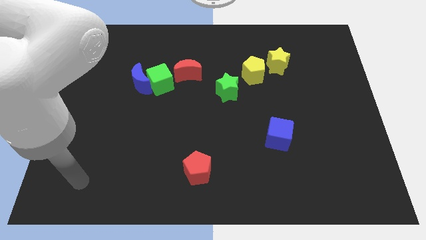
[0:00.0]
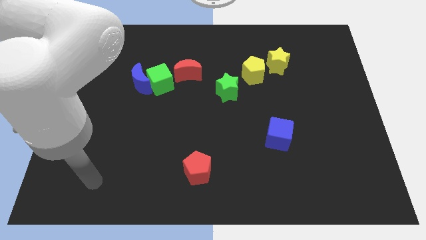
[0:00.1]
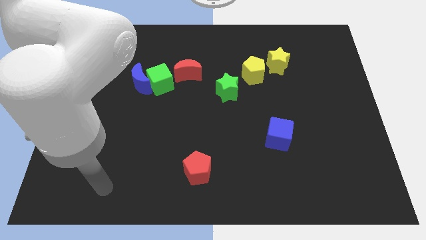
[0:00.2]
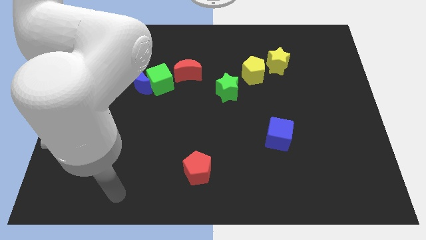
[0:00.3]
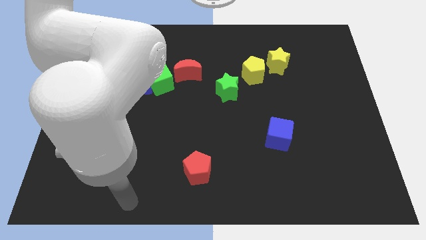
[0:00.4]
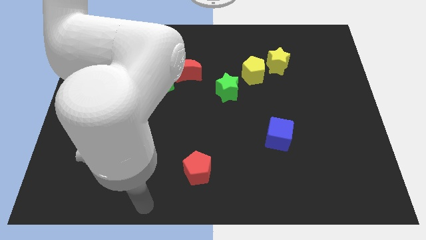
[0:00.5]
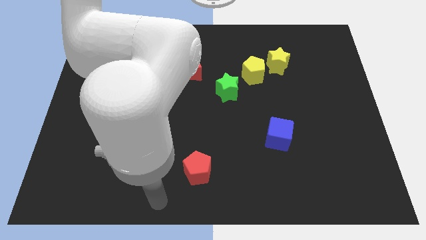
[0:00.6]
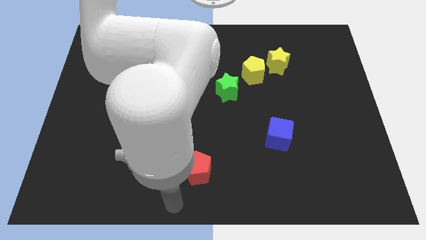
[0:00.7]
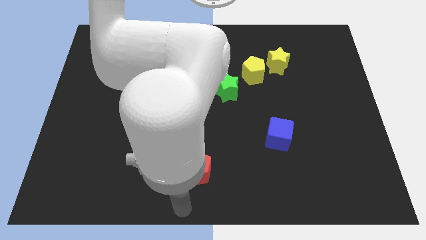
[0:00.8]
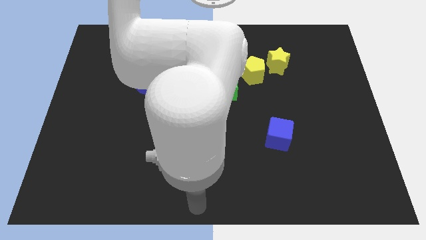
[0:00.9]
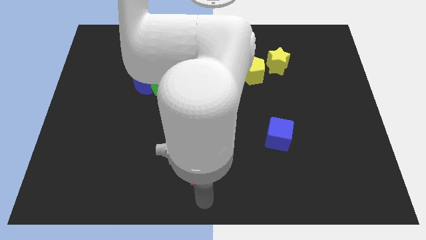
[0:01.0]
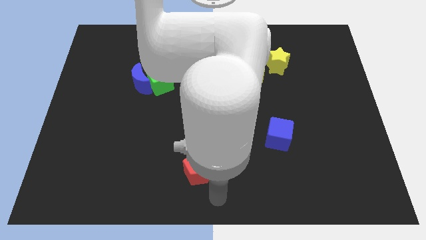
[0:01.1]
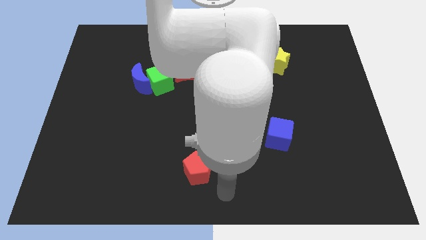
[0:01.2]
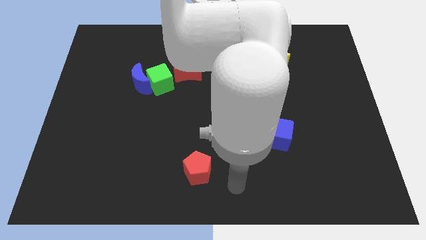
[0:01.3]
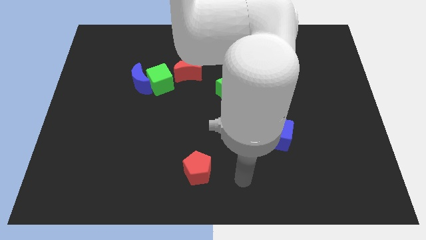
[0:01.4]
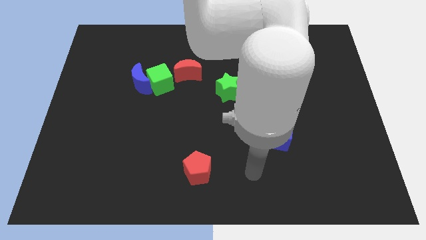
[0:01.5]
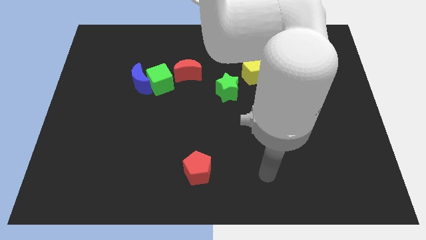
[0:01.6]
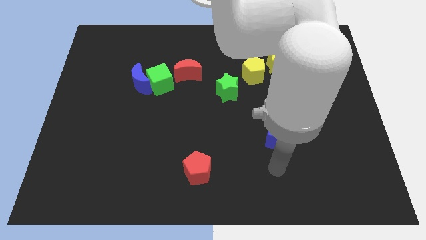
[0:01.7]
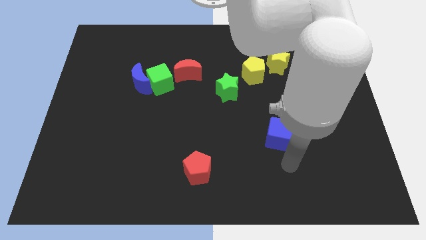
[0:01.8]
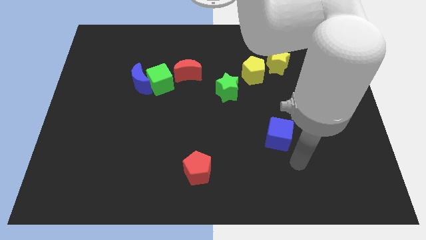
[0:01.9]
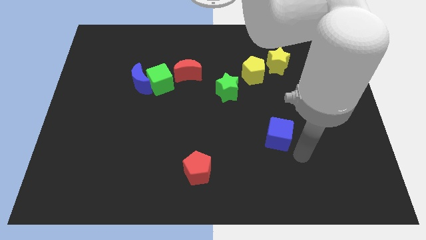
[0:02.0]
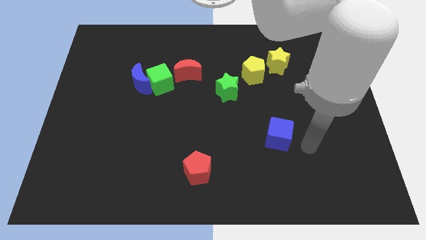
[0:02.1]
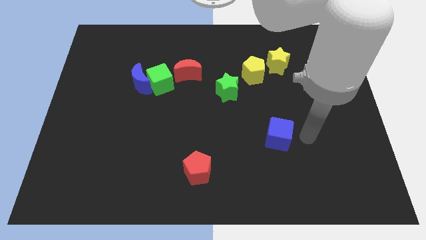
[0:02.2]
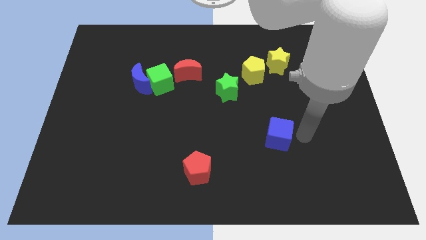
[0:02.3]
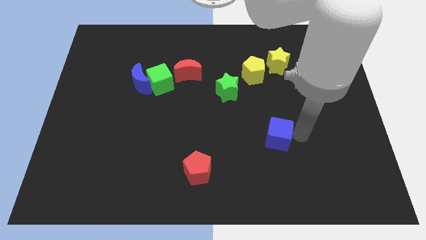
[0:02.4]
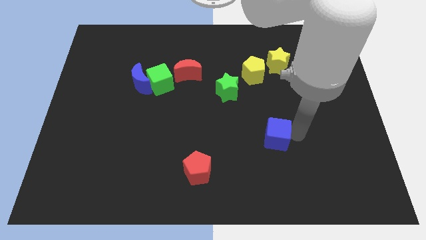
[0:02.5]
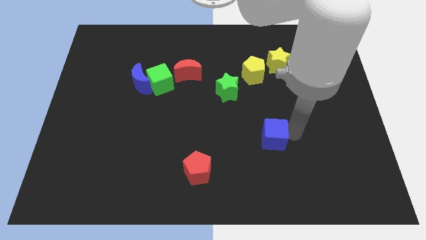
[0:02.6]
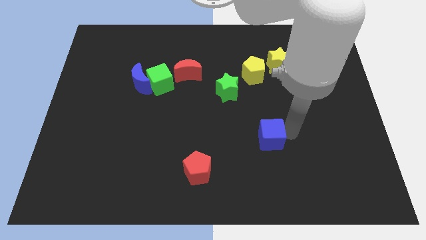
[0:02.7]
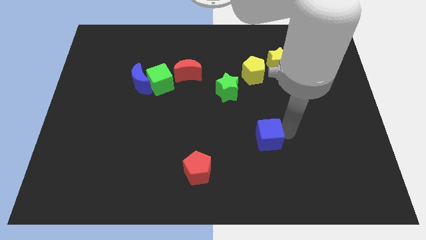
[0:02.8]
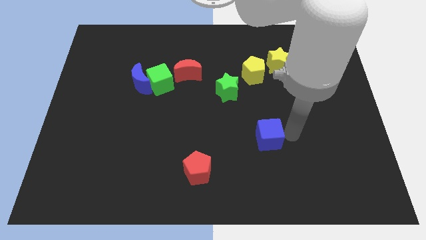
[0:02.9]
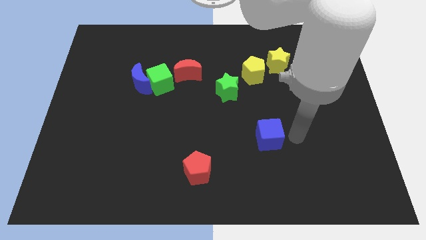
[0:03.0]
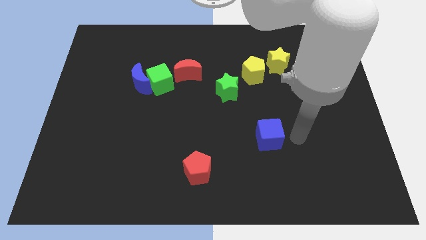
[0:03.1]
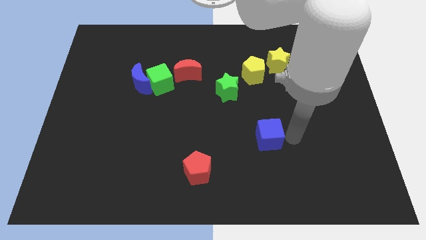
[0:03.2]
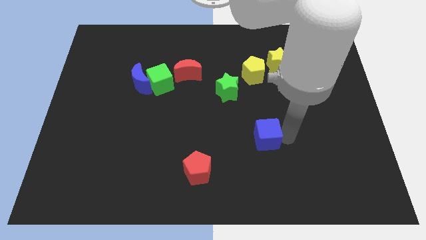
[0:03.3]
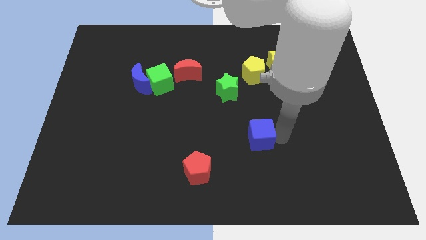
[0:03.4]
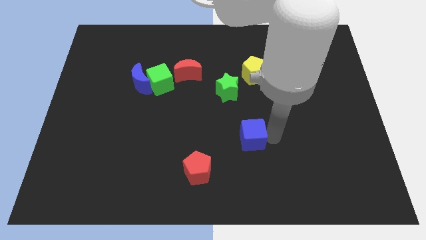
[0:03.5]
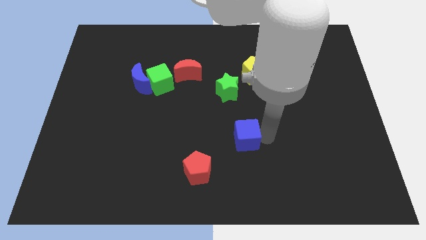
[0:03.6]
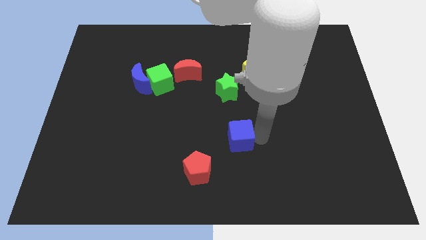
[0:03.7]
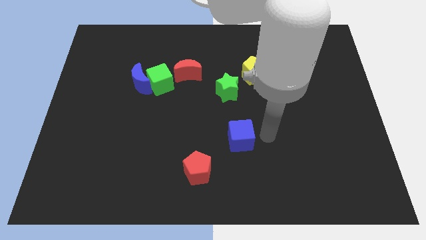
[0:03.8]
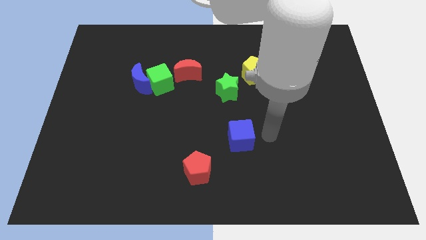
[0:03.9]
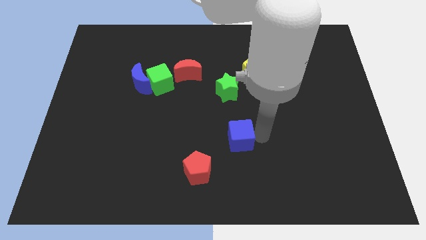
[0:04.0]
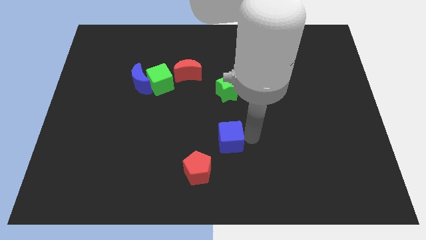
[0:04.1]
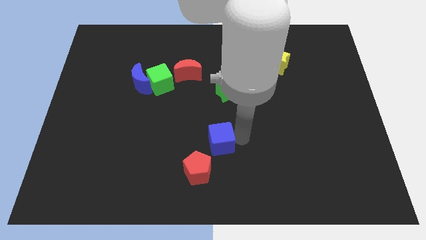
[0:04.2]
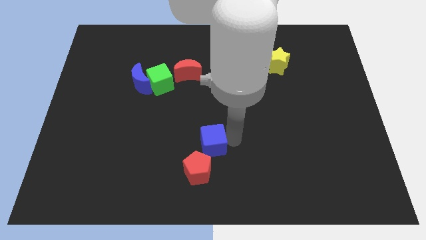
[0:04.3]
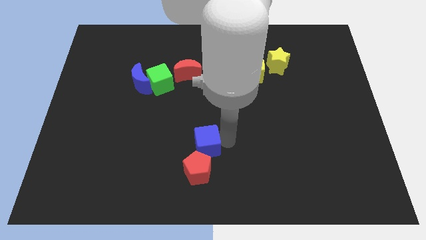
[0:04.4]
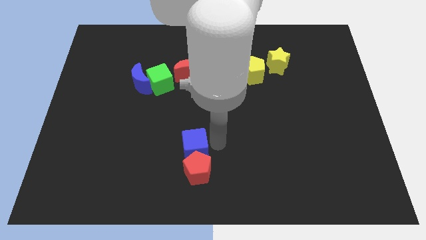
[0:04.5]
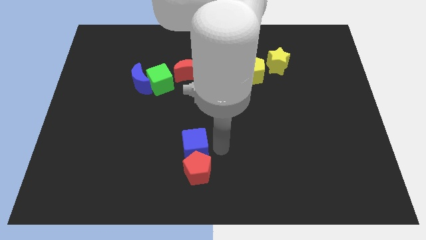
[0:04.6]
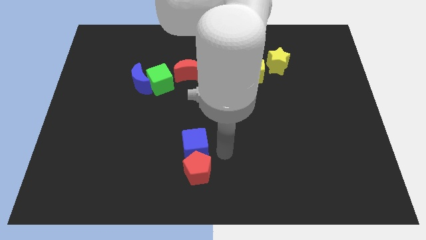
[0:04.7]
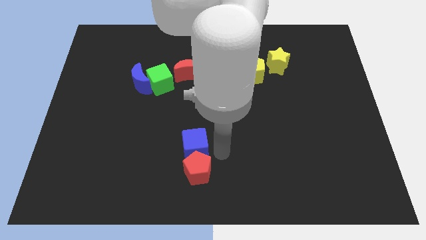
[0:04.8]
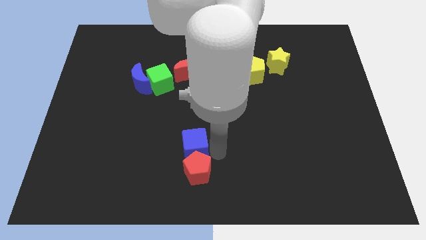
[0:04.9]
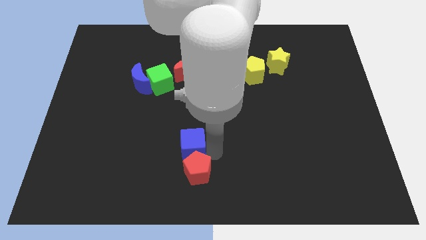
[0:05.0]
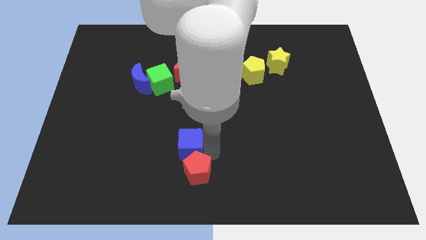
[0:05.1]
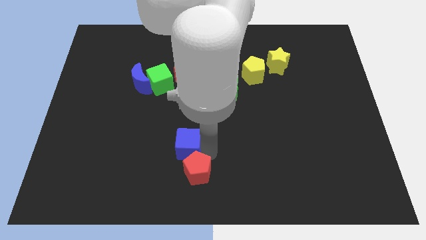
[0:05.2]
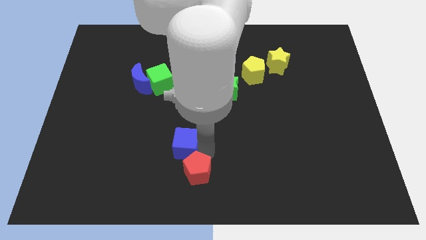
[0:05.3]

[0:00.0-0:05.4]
slide the blue cube to the left

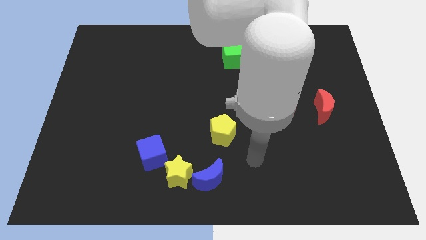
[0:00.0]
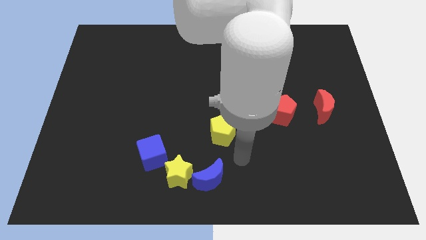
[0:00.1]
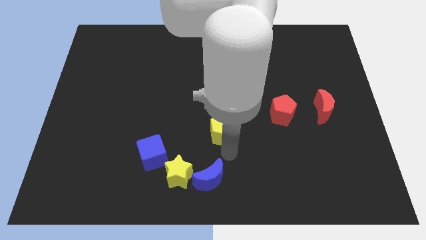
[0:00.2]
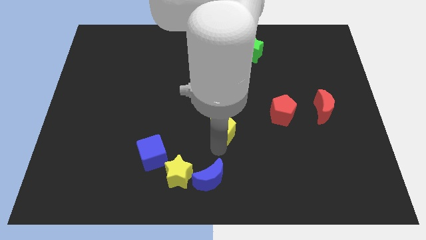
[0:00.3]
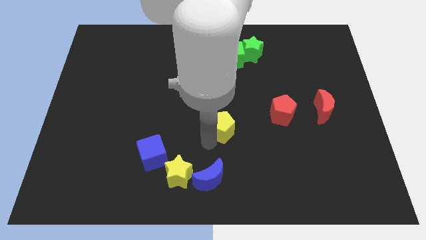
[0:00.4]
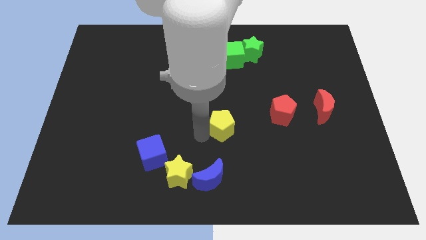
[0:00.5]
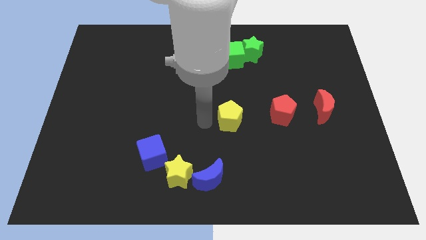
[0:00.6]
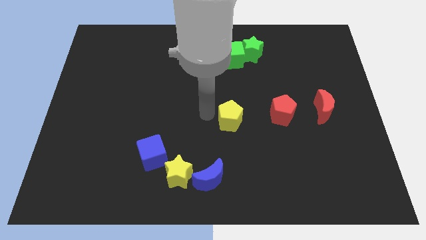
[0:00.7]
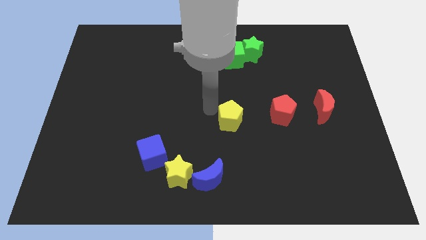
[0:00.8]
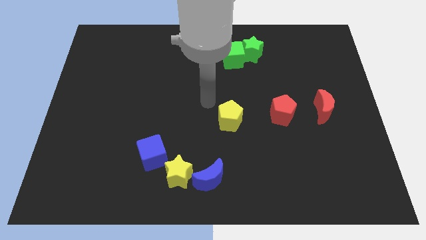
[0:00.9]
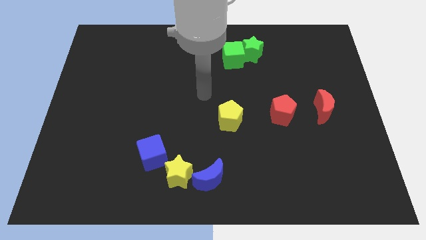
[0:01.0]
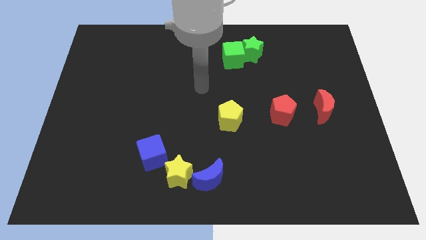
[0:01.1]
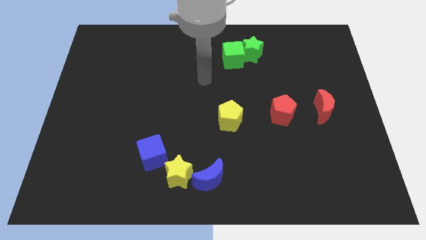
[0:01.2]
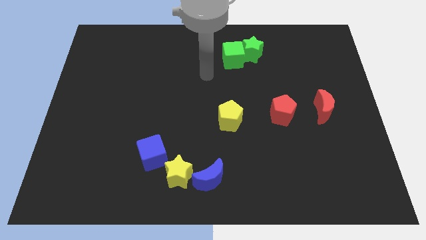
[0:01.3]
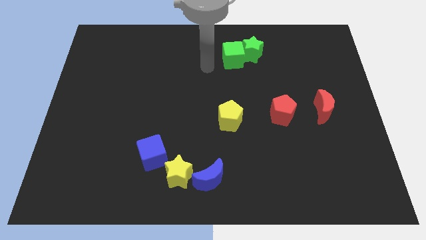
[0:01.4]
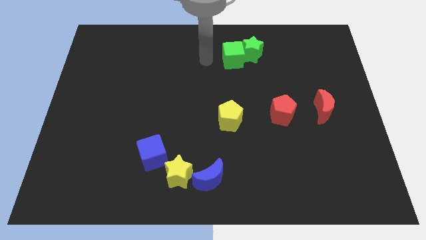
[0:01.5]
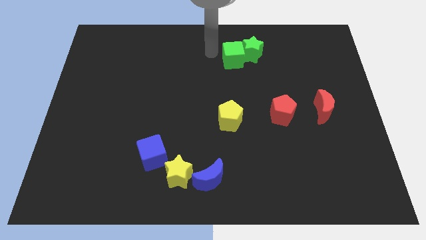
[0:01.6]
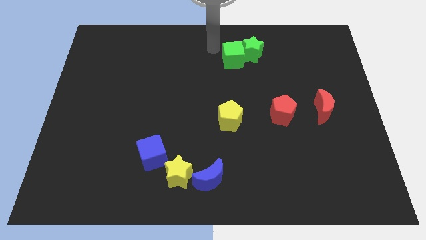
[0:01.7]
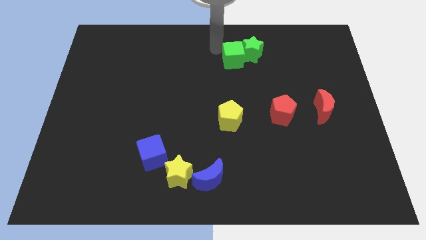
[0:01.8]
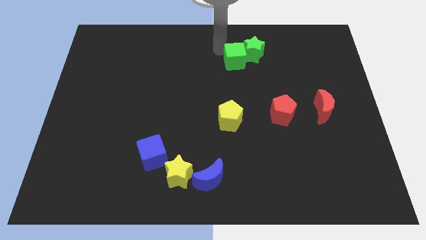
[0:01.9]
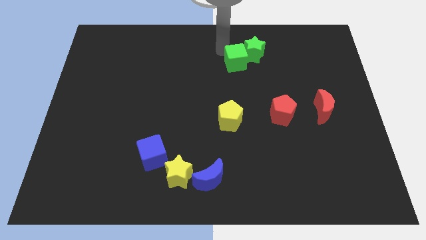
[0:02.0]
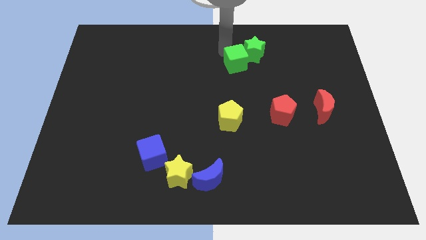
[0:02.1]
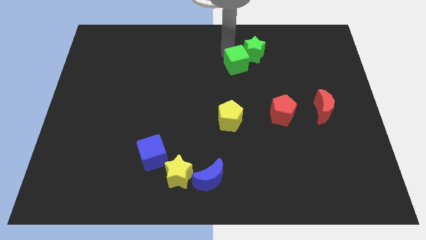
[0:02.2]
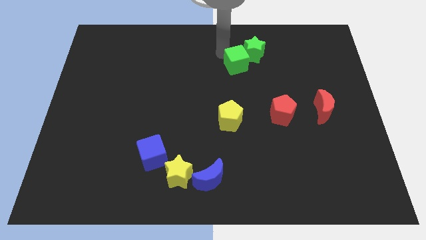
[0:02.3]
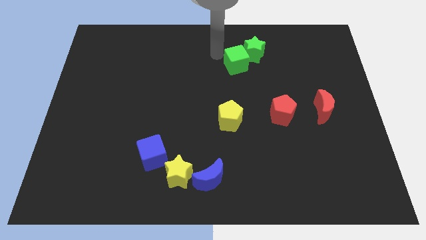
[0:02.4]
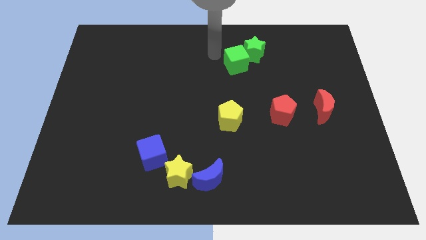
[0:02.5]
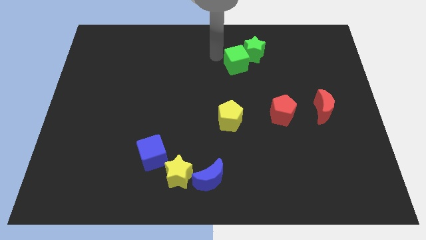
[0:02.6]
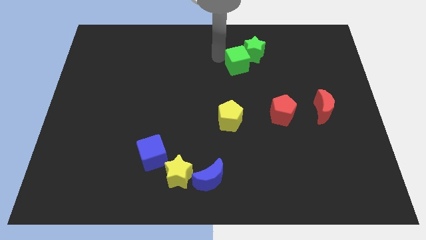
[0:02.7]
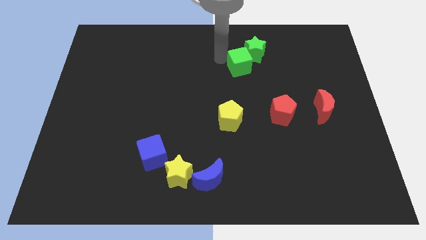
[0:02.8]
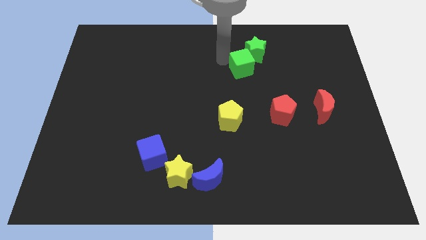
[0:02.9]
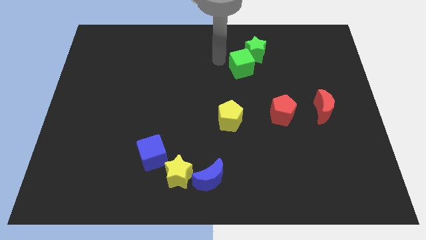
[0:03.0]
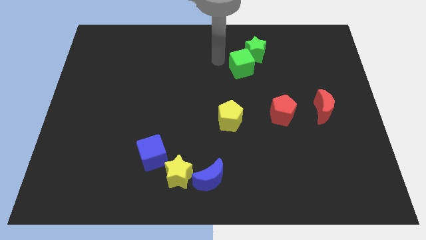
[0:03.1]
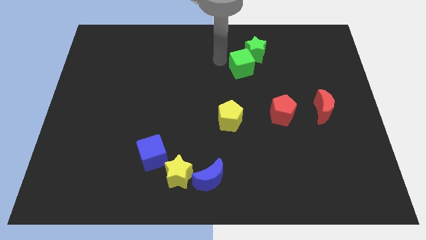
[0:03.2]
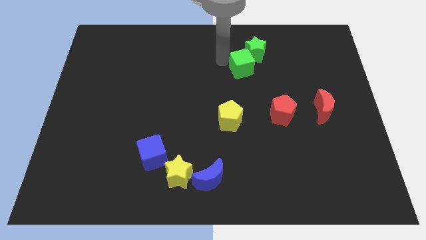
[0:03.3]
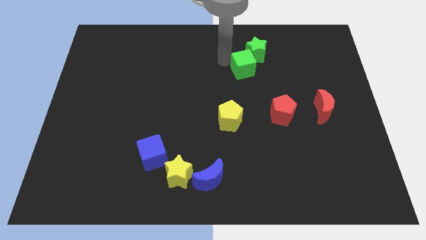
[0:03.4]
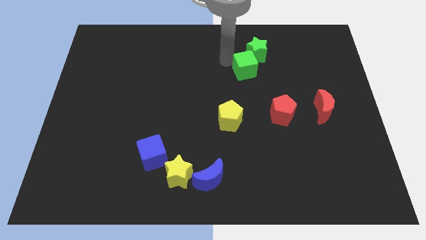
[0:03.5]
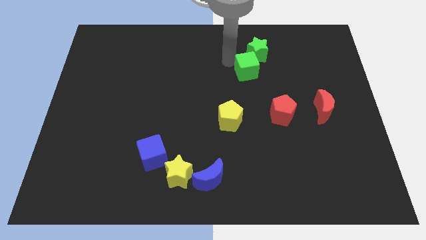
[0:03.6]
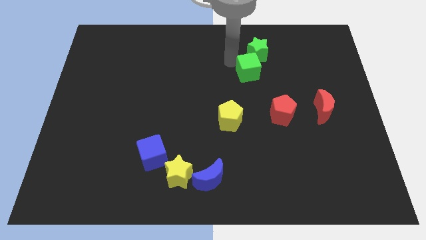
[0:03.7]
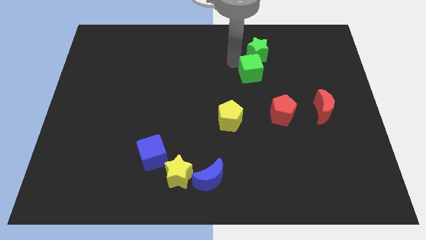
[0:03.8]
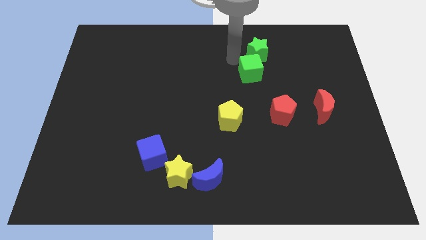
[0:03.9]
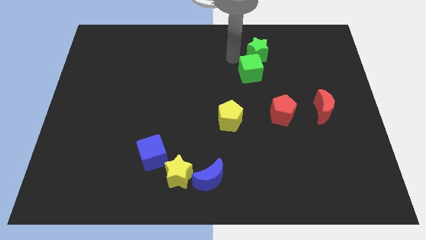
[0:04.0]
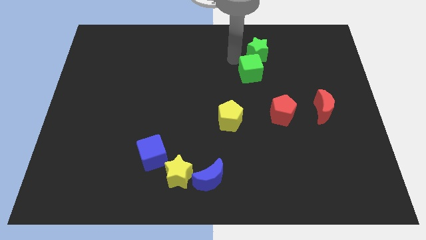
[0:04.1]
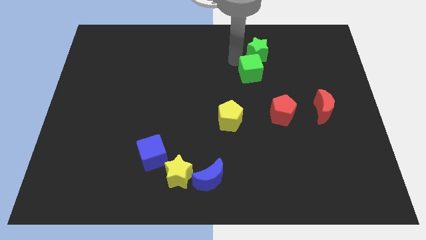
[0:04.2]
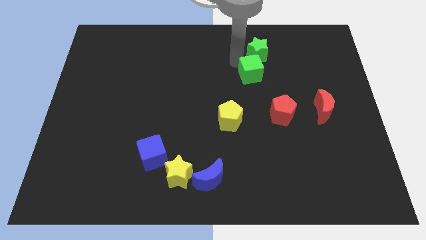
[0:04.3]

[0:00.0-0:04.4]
move the green cube diagonally down and to the right a little
